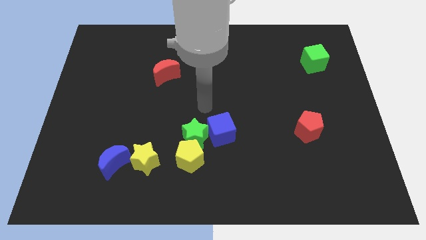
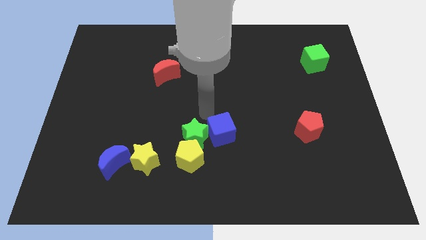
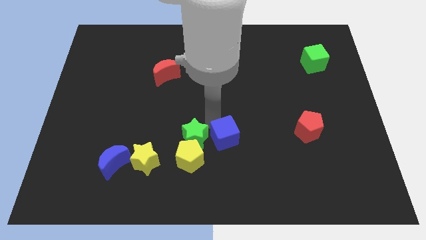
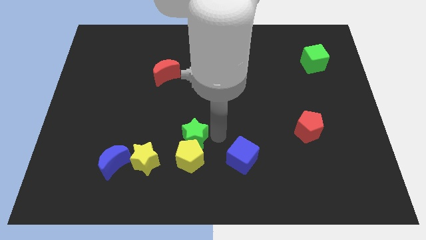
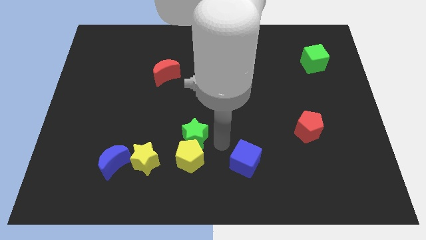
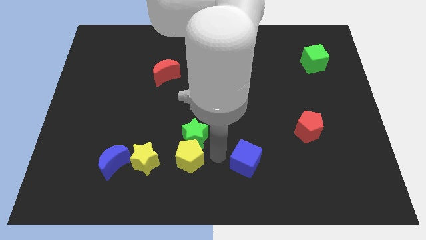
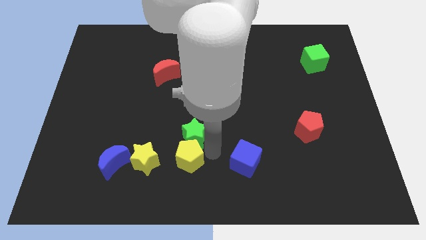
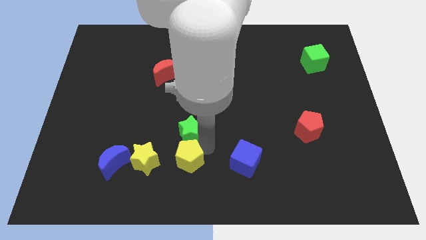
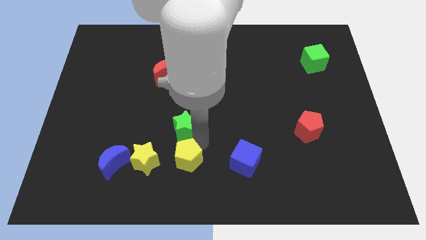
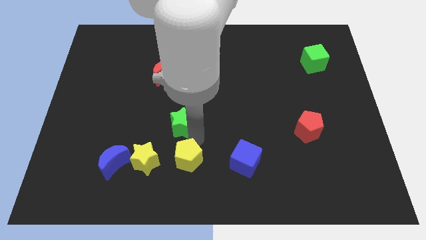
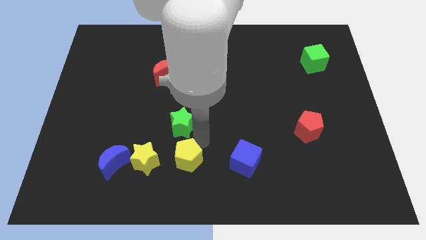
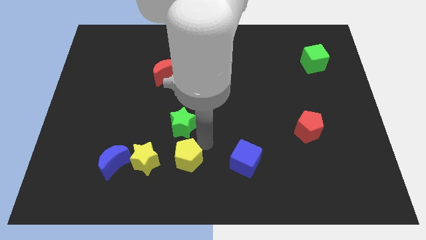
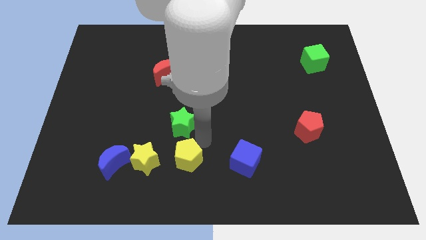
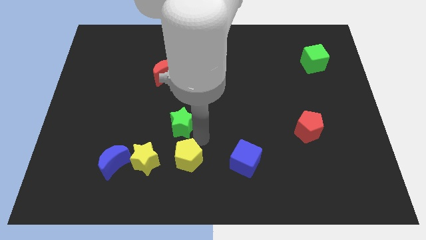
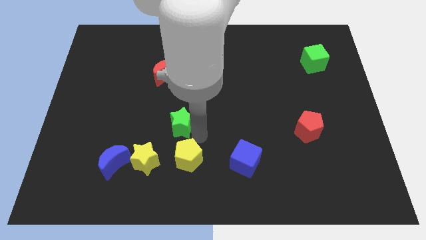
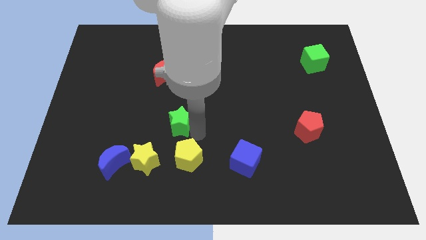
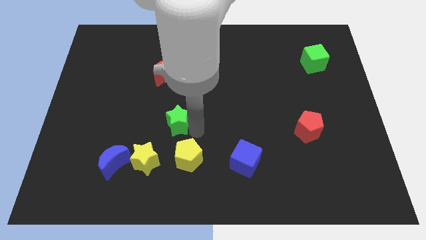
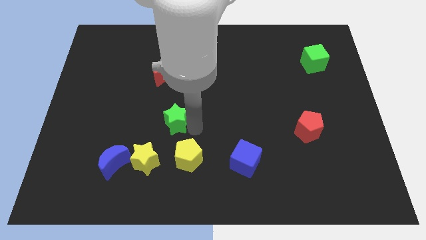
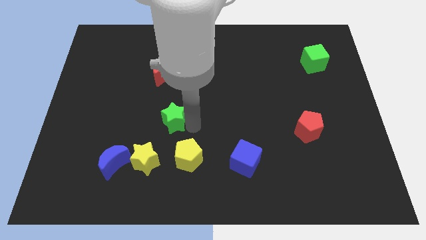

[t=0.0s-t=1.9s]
push the green star diagonally up and left a little

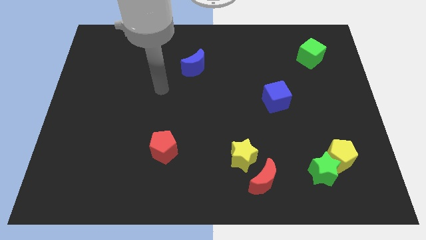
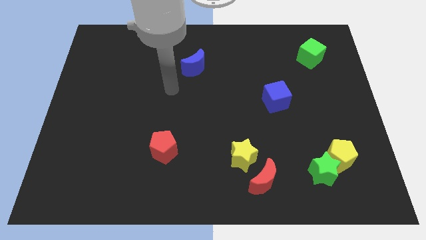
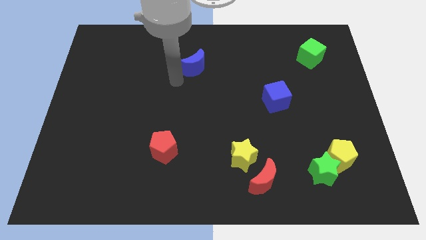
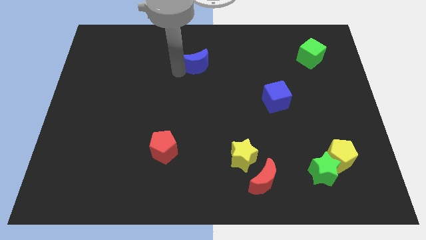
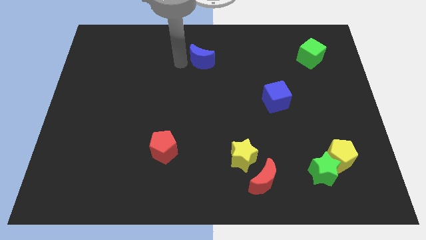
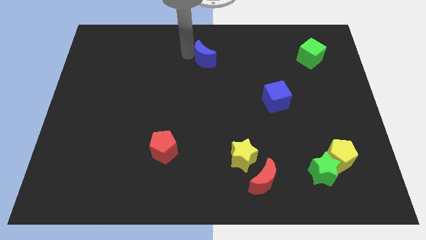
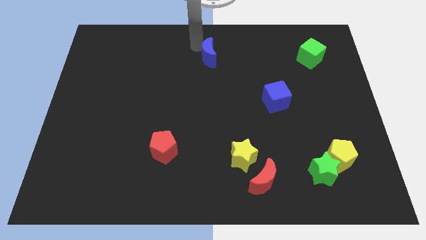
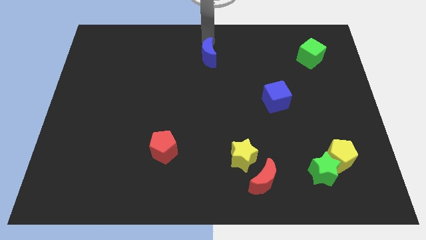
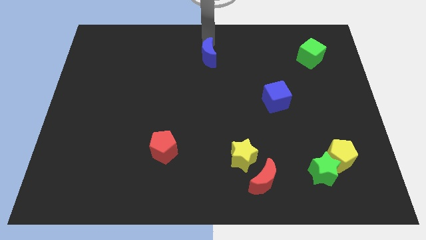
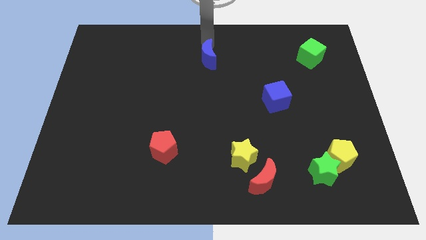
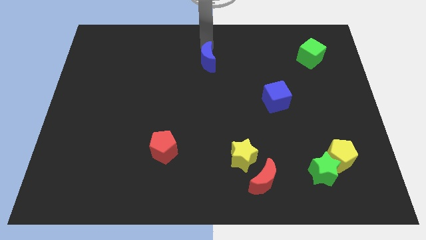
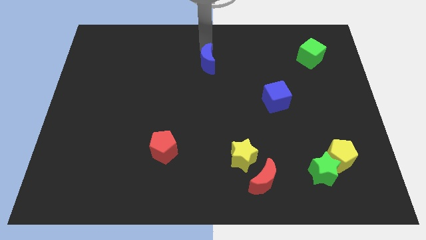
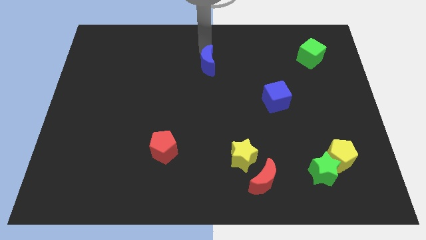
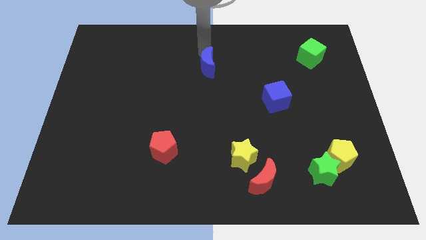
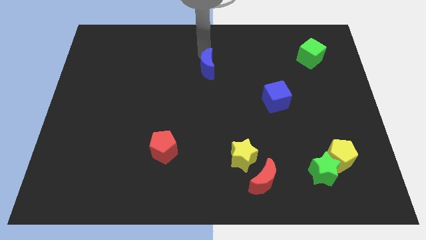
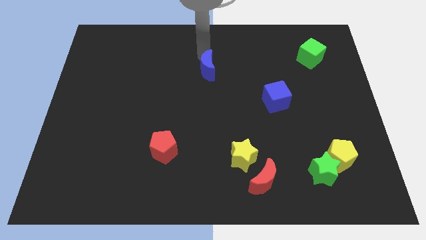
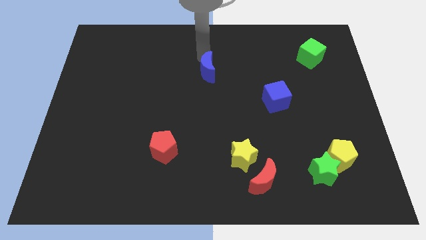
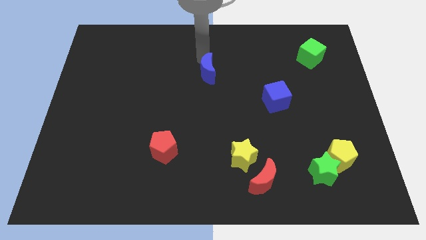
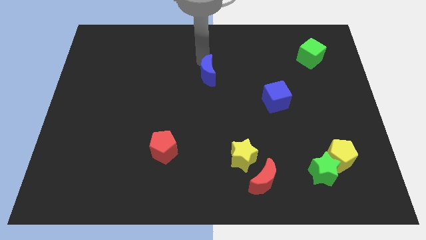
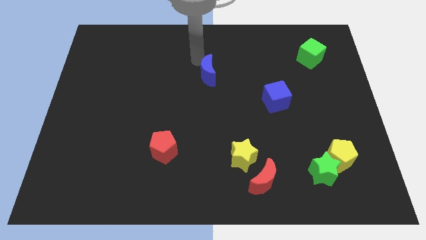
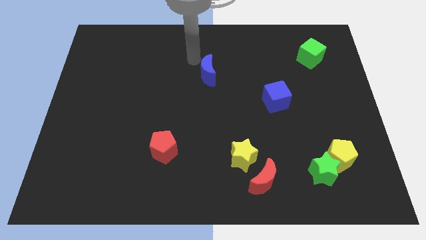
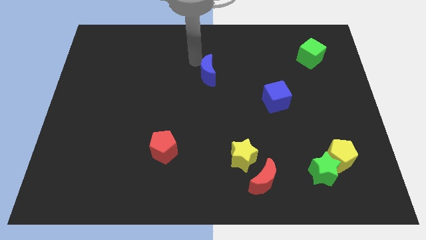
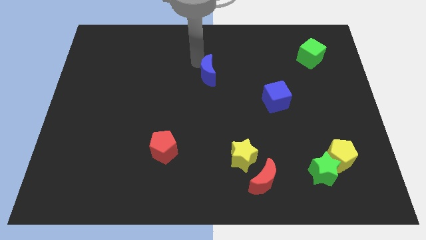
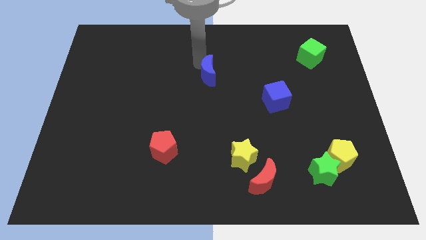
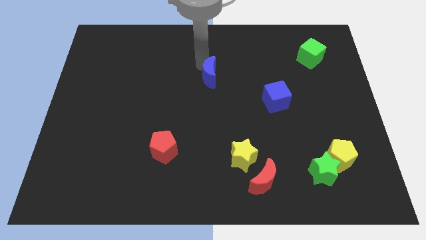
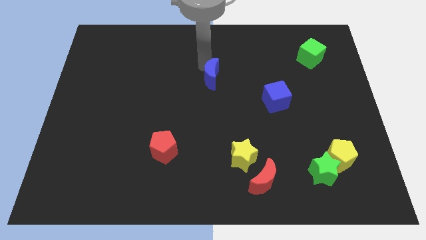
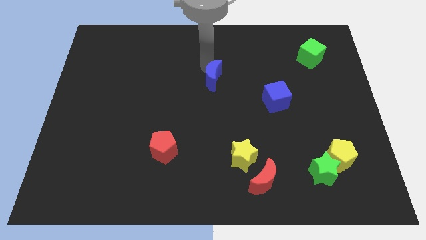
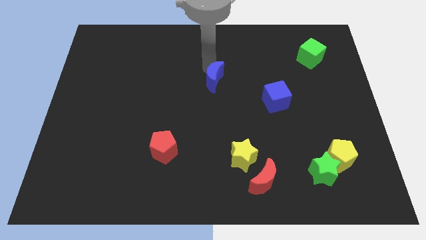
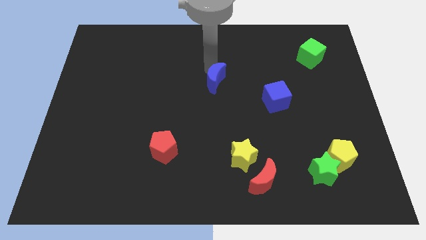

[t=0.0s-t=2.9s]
slide the blue moon downwards and then right somewhat

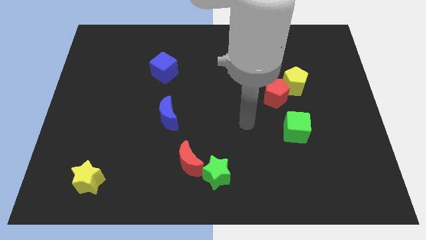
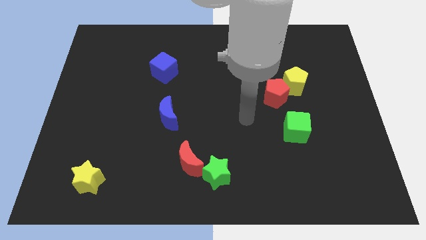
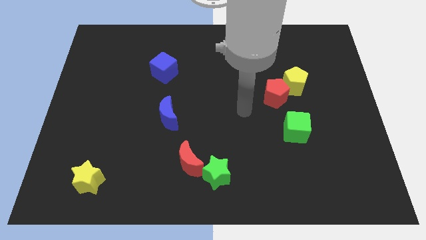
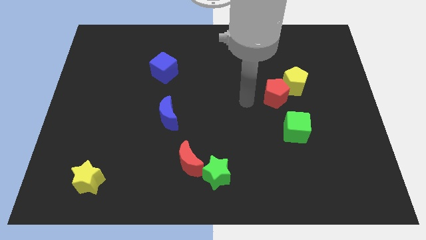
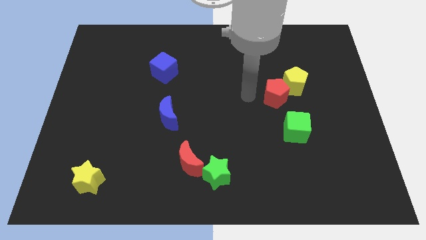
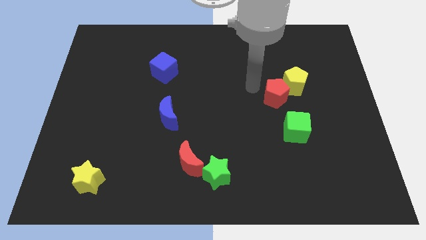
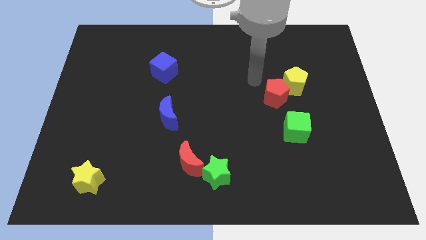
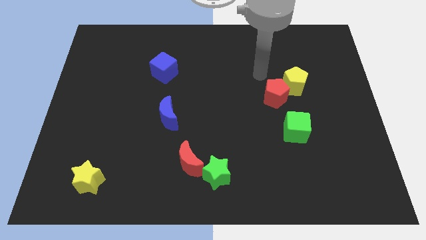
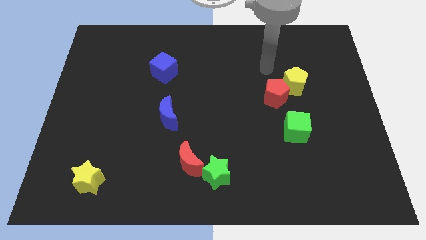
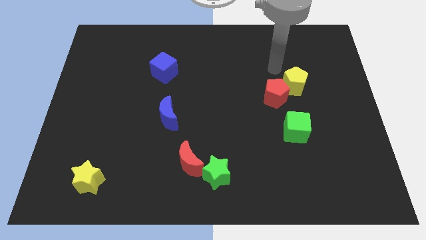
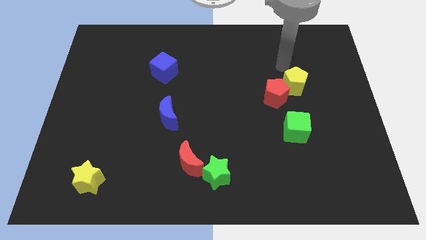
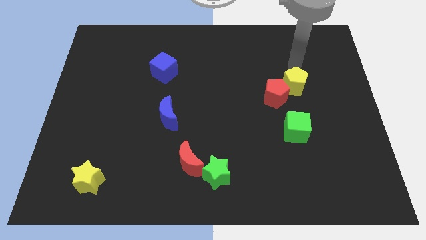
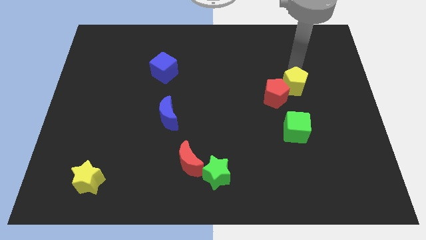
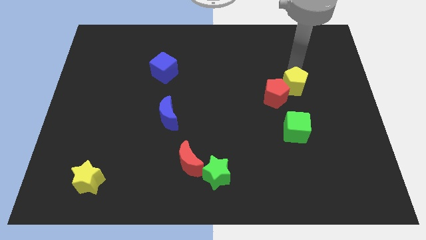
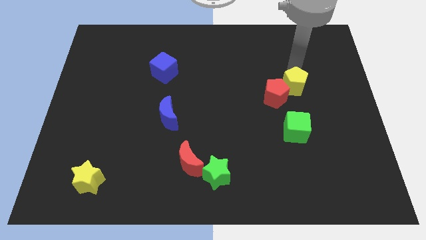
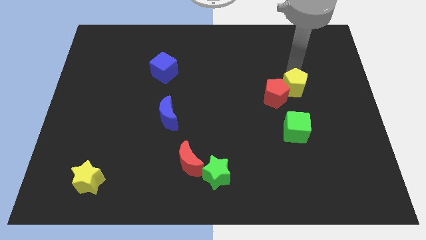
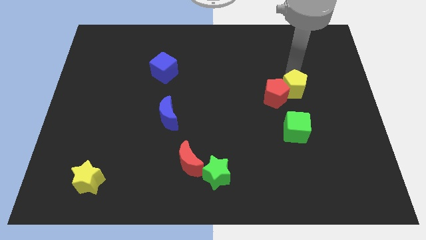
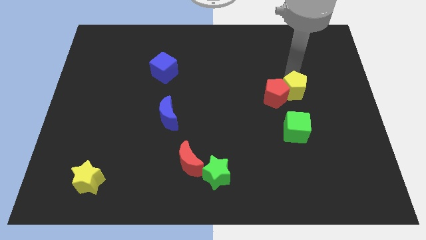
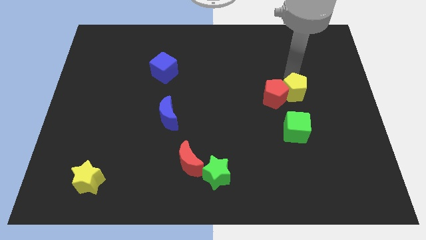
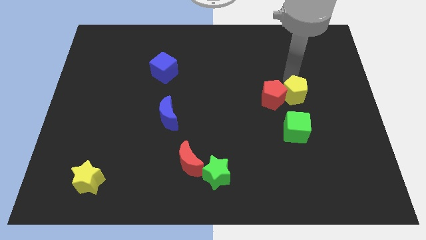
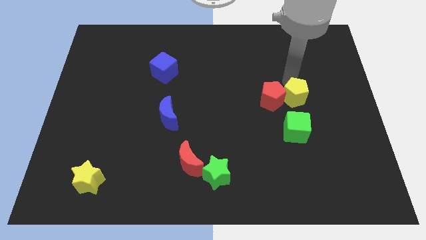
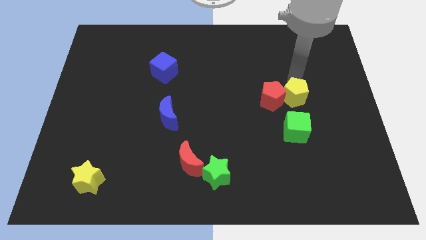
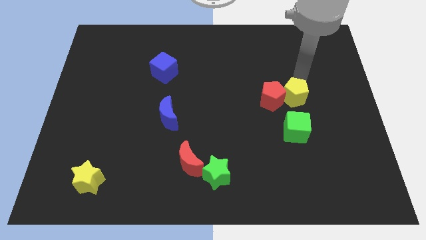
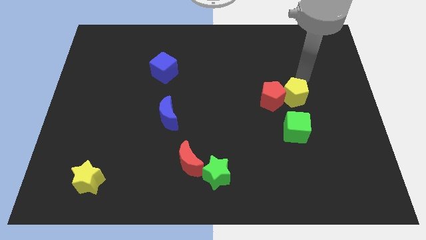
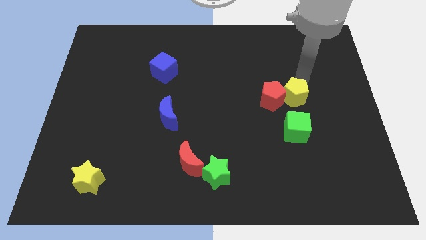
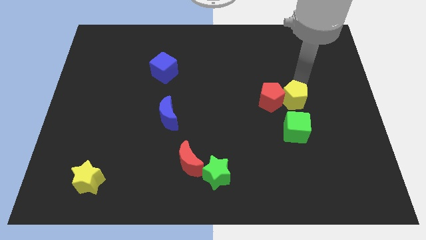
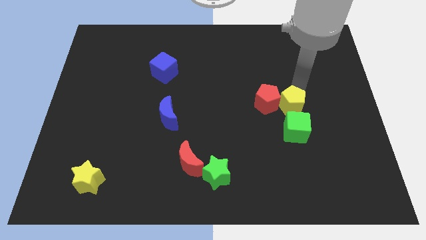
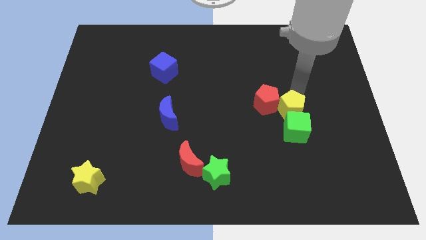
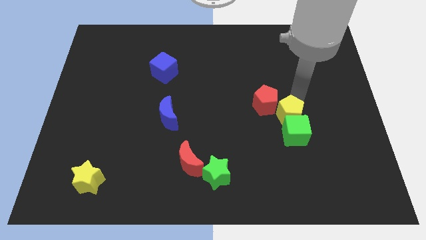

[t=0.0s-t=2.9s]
push the yellow pentagon slightly diagonally down and left

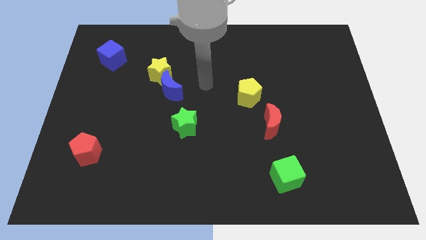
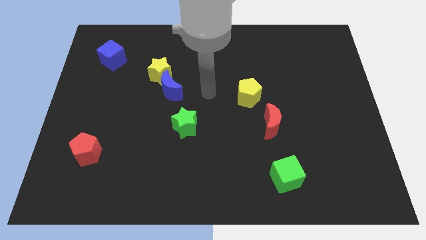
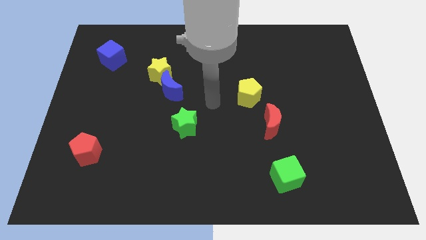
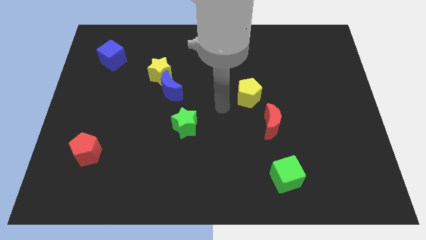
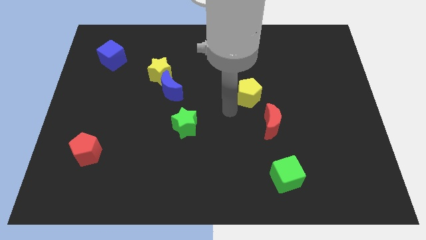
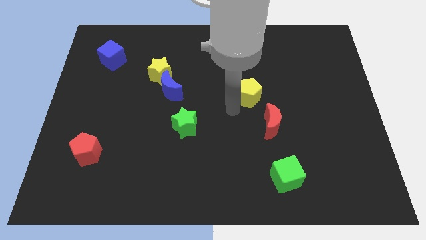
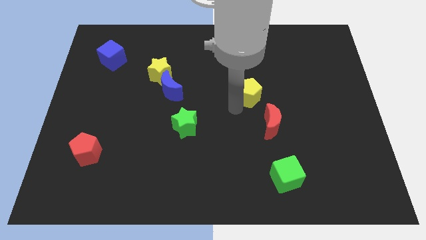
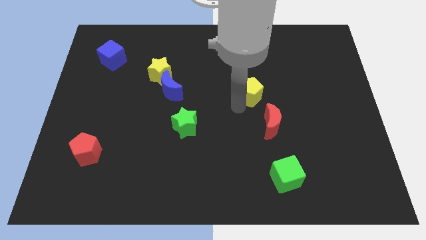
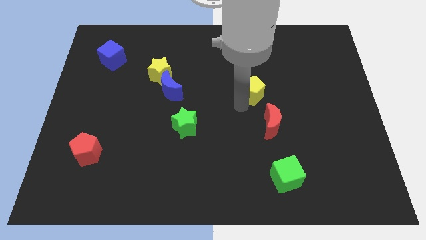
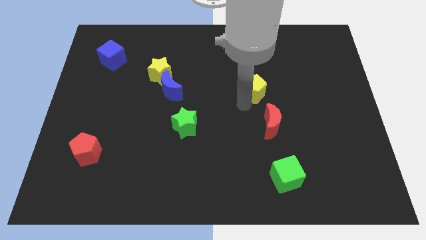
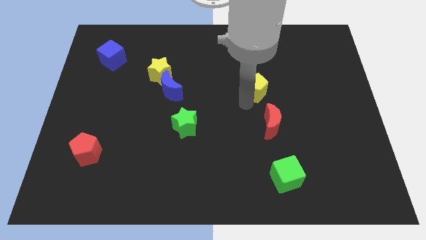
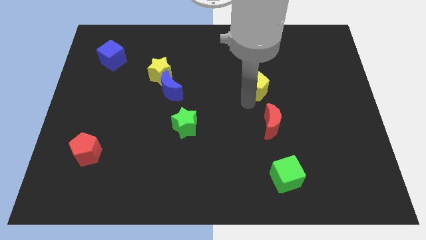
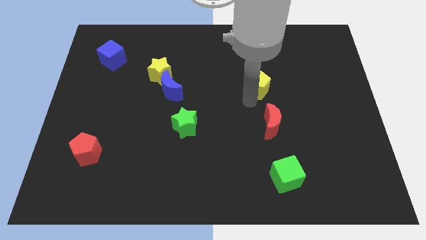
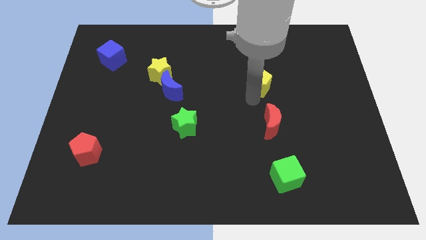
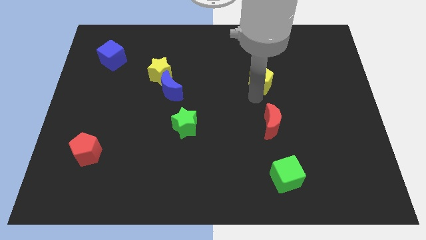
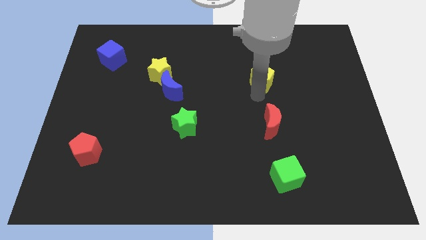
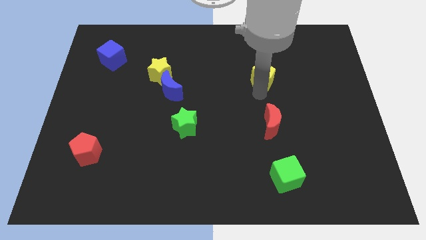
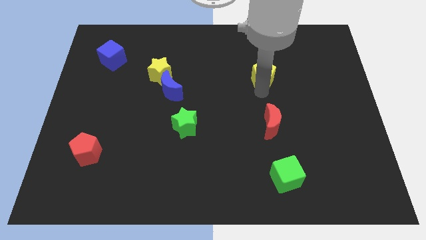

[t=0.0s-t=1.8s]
move the yellow pentagon diagonally up and right slightly
